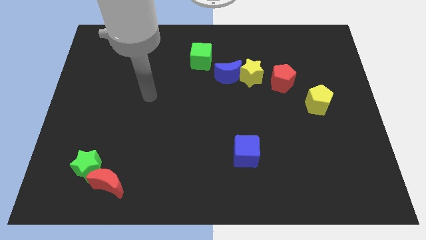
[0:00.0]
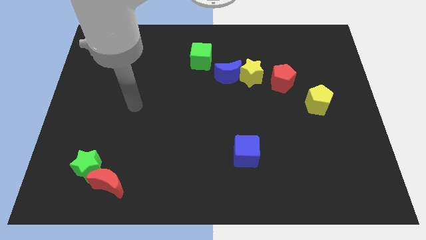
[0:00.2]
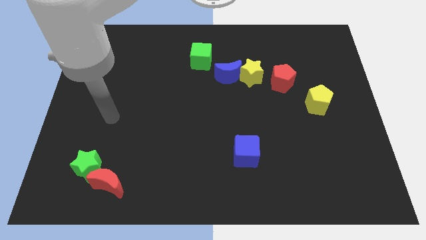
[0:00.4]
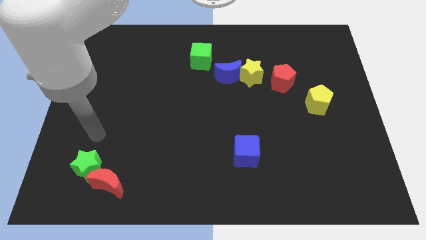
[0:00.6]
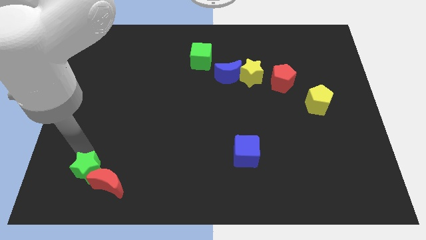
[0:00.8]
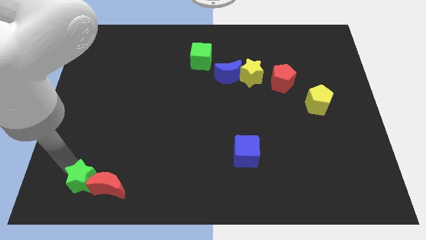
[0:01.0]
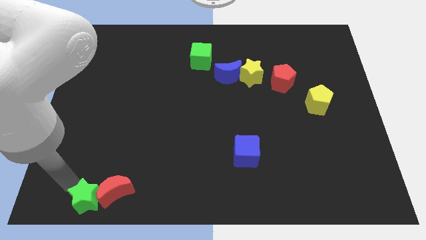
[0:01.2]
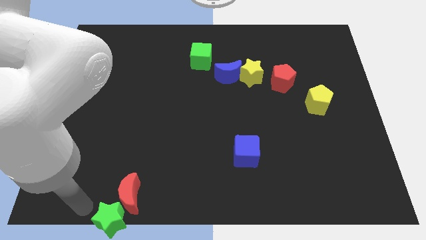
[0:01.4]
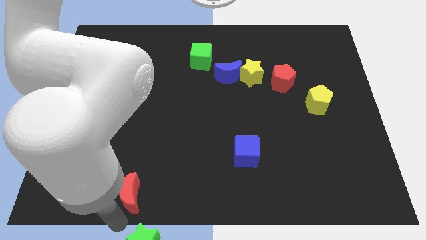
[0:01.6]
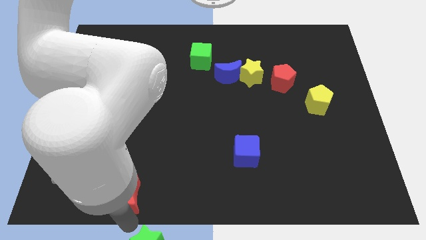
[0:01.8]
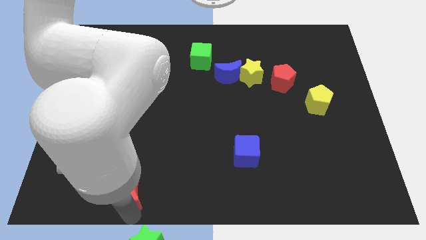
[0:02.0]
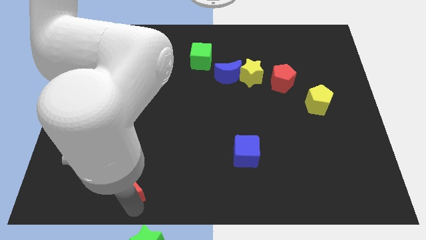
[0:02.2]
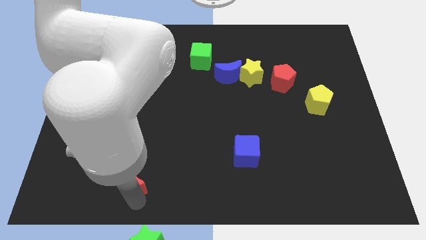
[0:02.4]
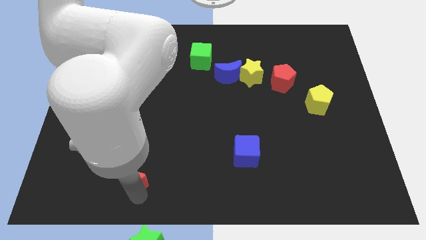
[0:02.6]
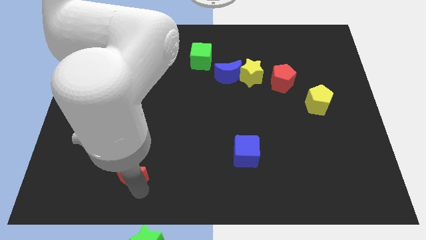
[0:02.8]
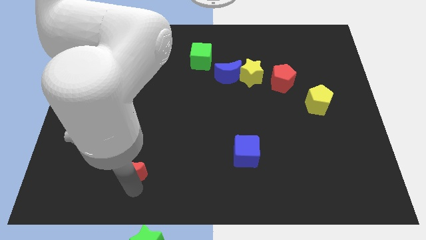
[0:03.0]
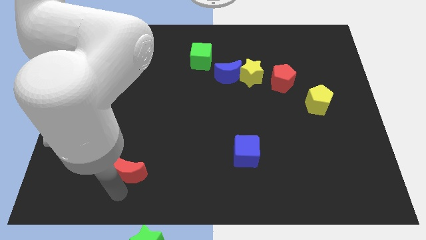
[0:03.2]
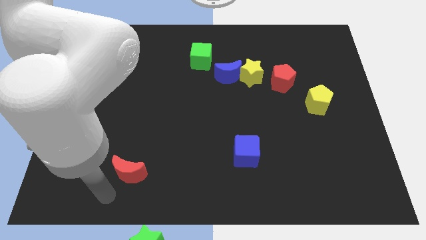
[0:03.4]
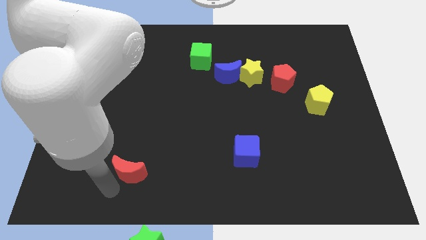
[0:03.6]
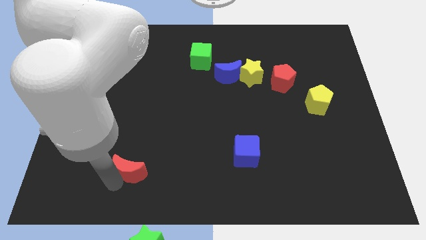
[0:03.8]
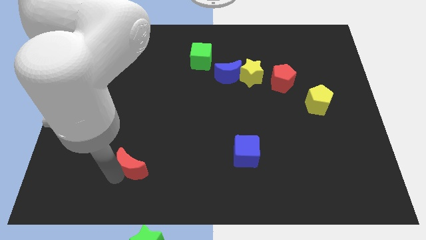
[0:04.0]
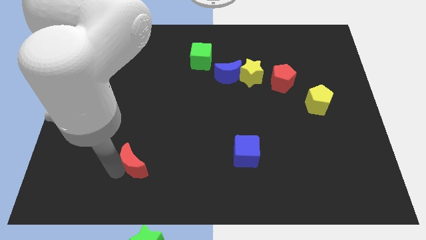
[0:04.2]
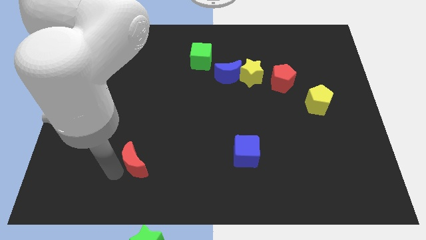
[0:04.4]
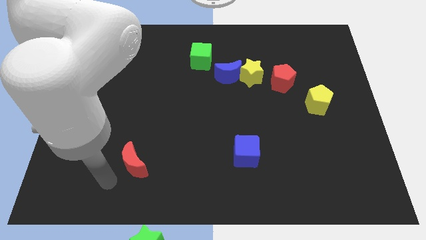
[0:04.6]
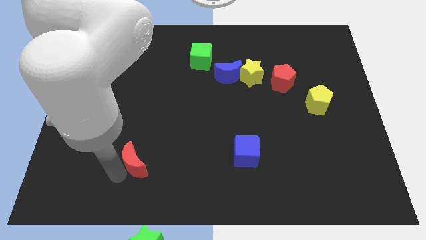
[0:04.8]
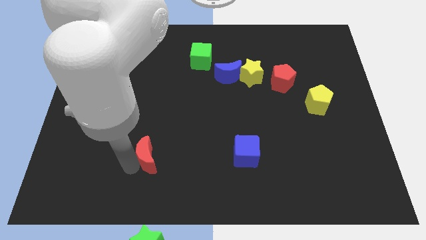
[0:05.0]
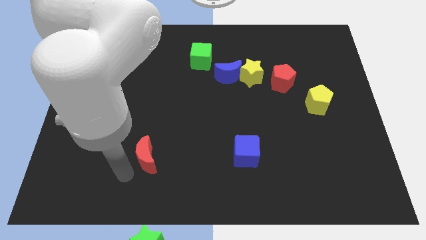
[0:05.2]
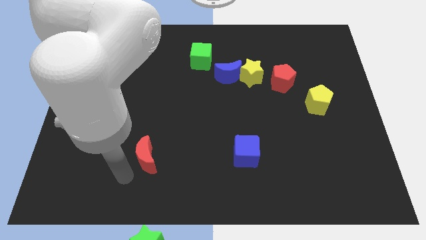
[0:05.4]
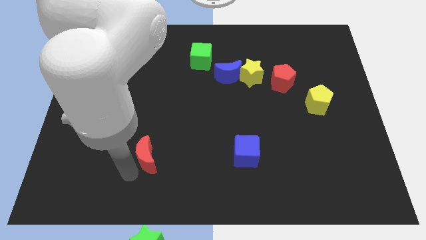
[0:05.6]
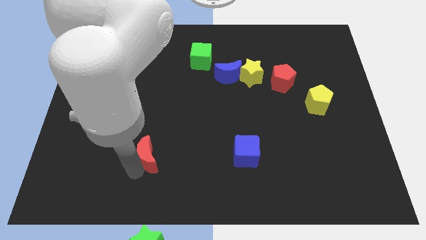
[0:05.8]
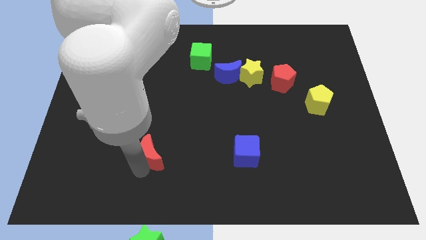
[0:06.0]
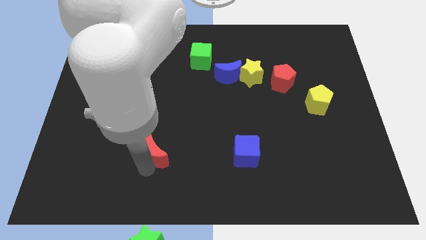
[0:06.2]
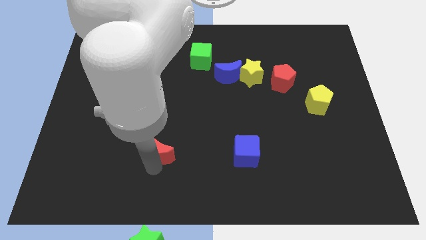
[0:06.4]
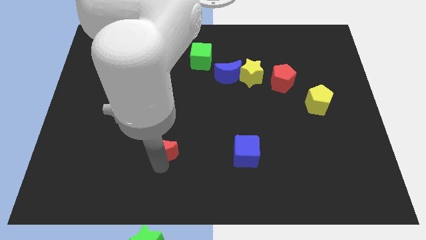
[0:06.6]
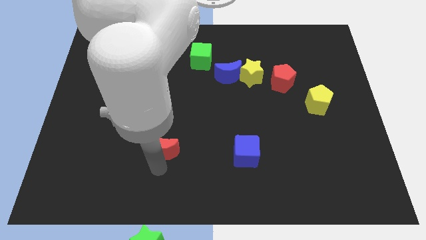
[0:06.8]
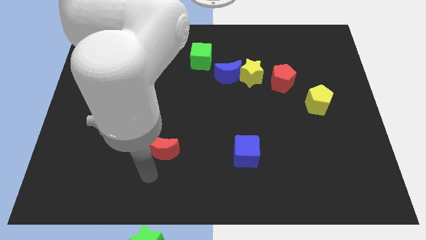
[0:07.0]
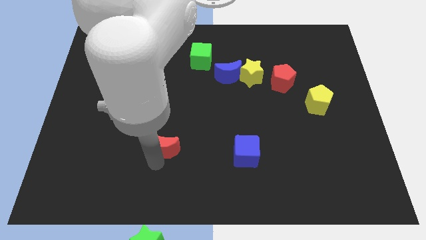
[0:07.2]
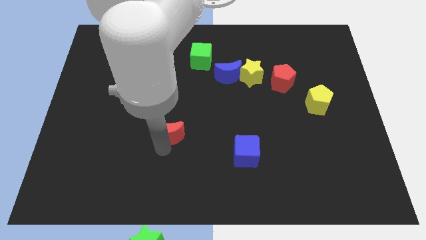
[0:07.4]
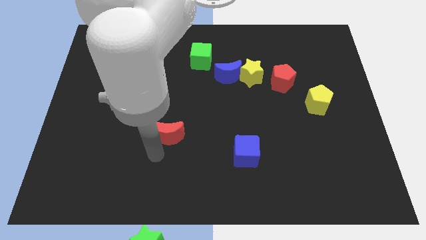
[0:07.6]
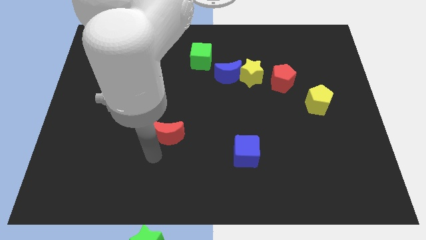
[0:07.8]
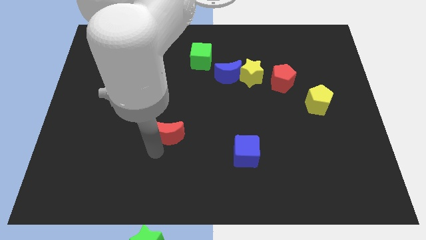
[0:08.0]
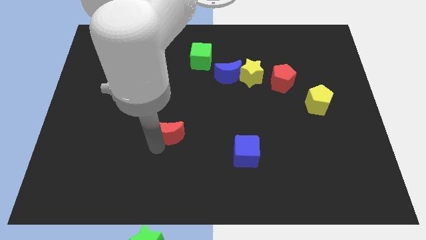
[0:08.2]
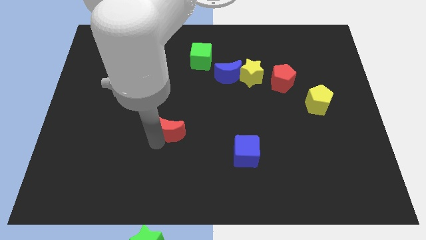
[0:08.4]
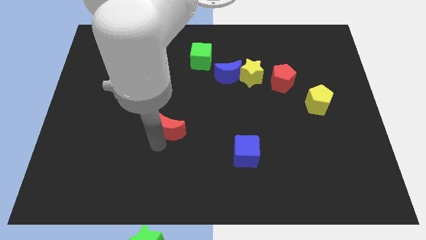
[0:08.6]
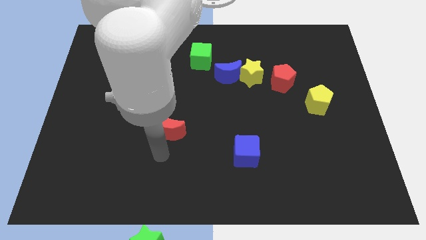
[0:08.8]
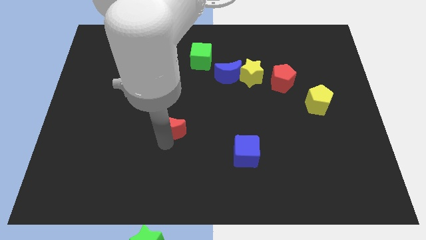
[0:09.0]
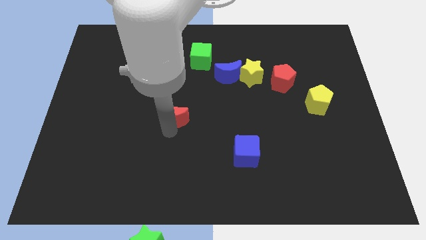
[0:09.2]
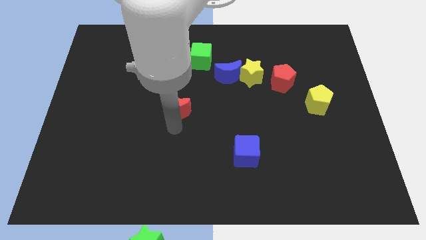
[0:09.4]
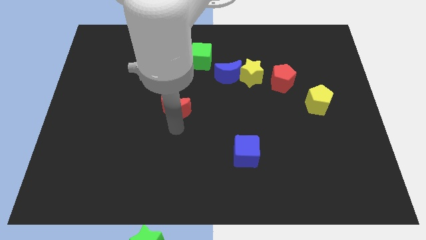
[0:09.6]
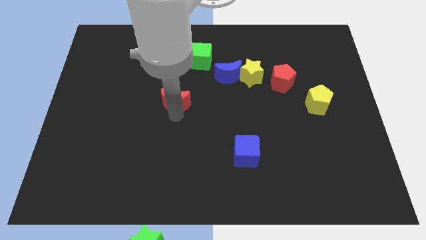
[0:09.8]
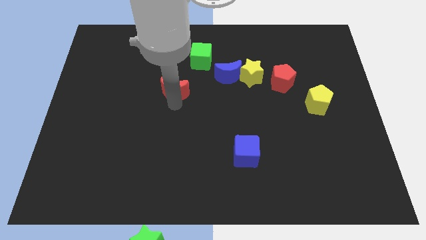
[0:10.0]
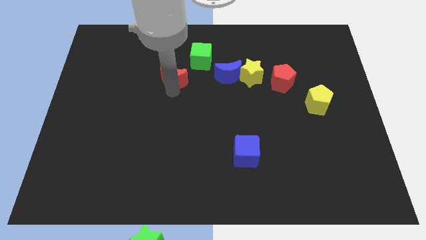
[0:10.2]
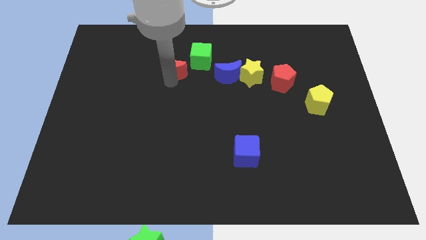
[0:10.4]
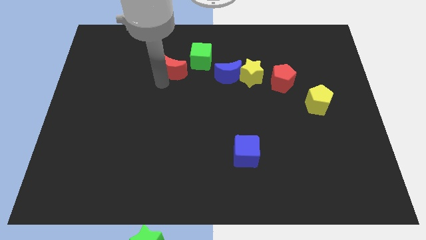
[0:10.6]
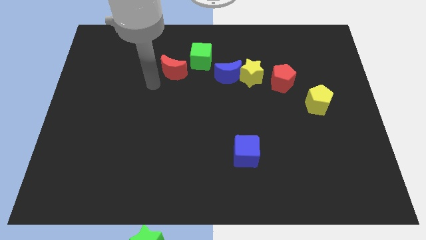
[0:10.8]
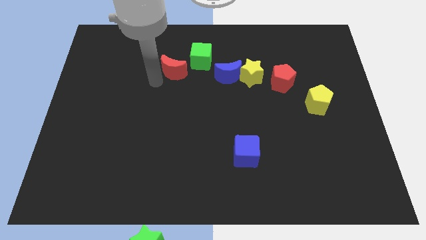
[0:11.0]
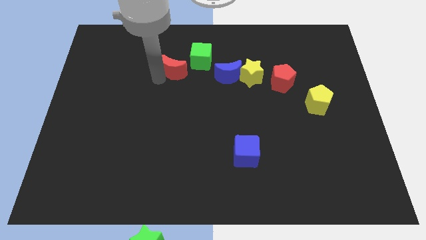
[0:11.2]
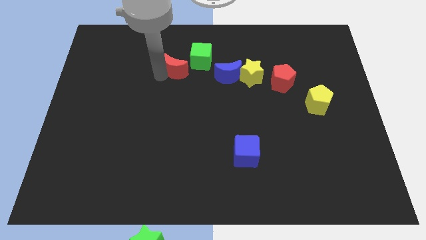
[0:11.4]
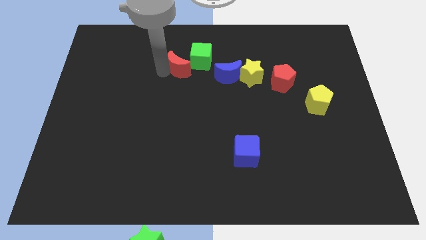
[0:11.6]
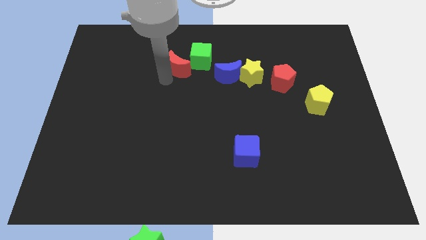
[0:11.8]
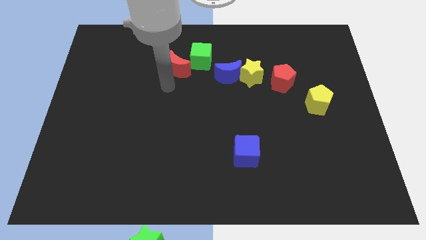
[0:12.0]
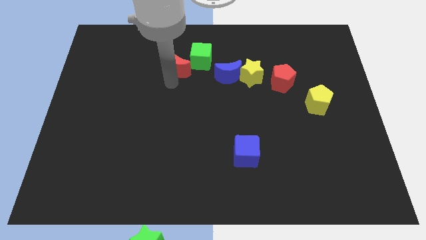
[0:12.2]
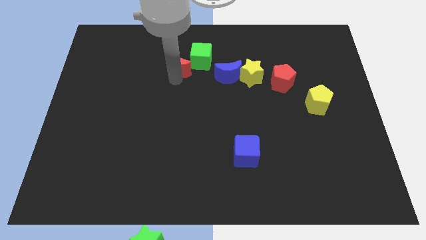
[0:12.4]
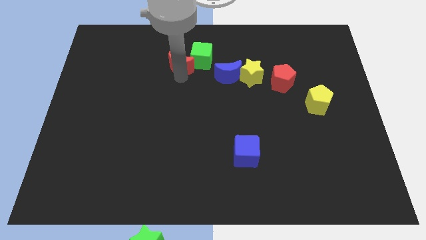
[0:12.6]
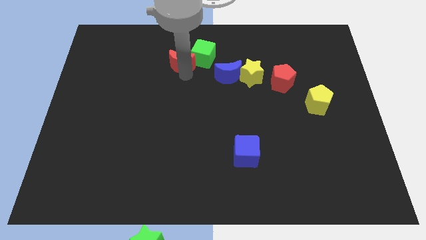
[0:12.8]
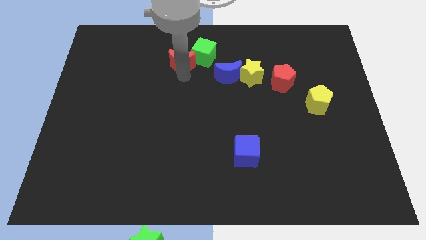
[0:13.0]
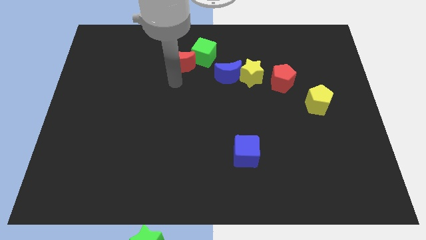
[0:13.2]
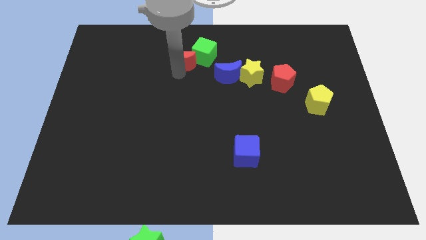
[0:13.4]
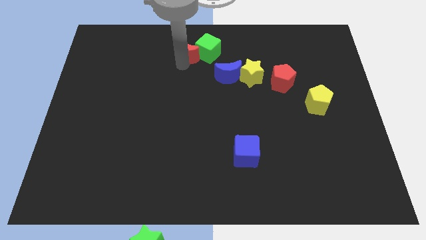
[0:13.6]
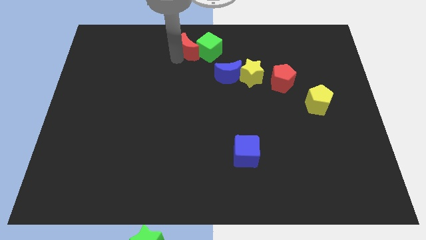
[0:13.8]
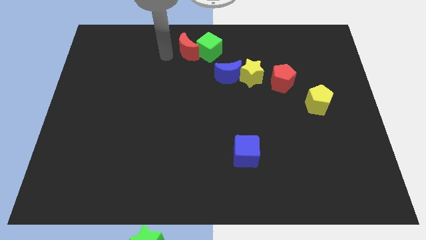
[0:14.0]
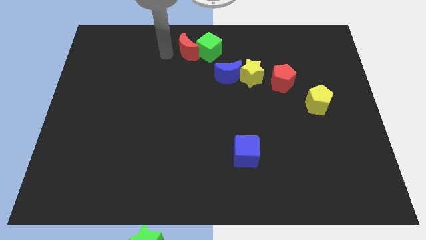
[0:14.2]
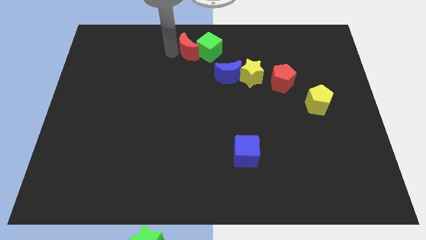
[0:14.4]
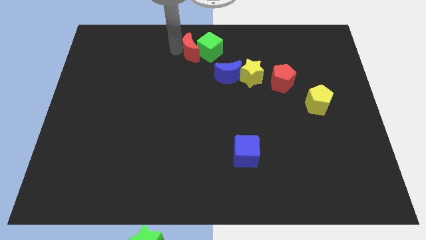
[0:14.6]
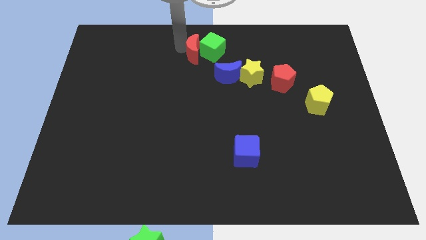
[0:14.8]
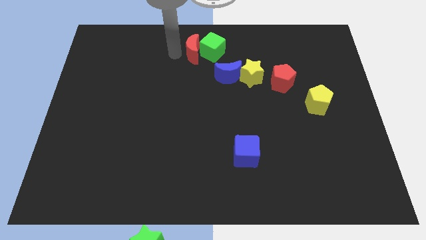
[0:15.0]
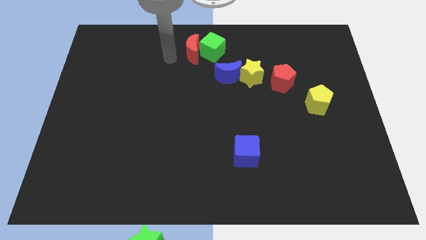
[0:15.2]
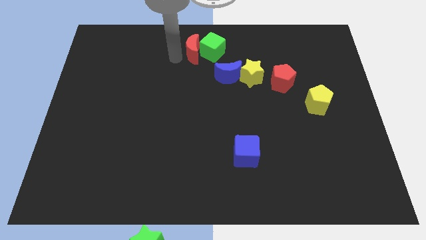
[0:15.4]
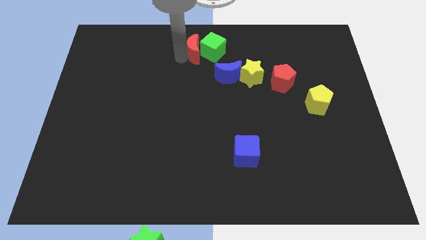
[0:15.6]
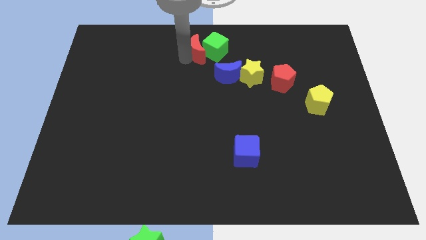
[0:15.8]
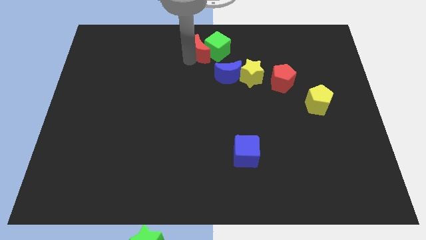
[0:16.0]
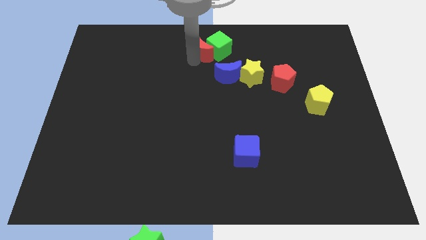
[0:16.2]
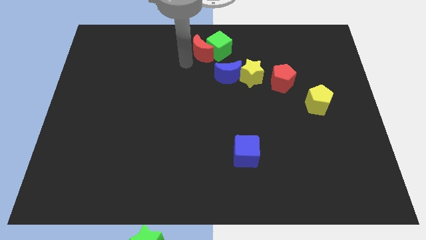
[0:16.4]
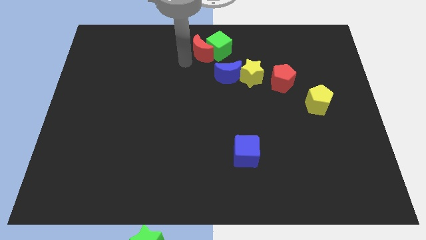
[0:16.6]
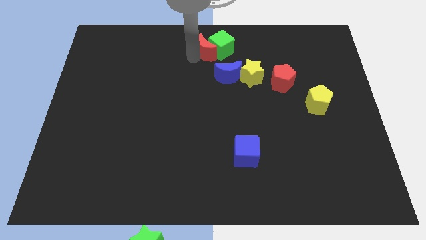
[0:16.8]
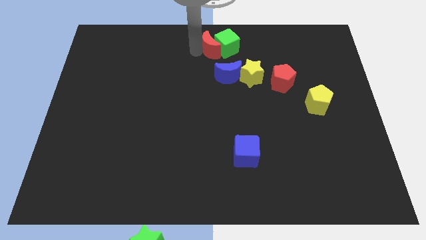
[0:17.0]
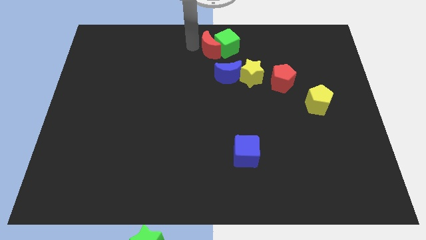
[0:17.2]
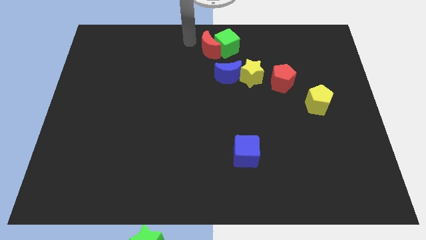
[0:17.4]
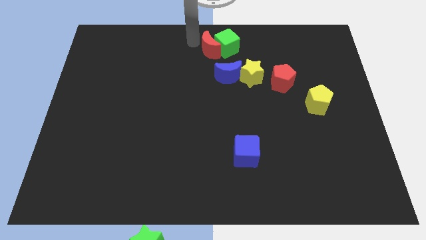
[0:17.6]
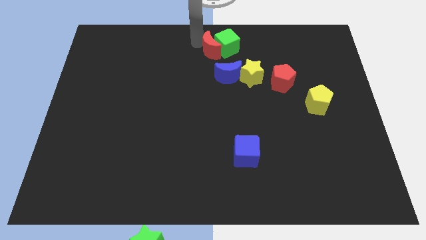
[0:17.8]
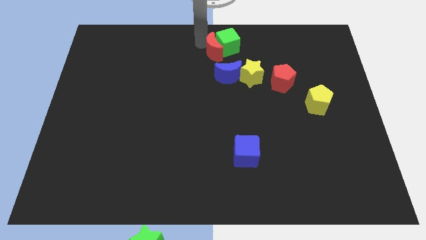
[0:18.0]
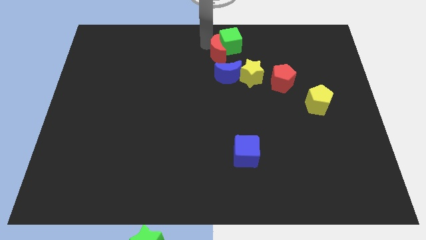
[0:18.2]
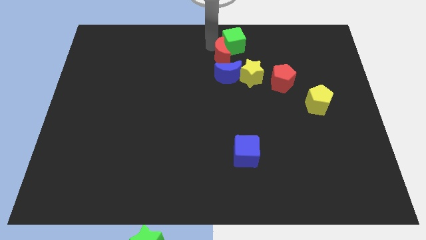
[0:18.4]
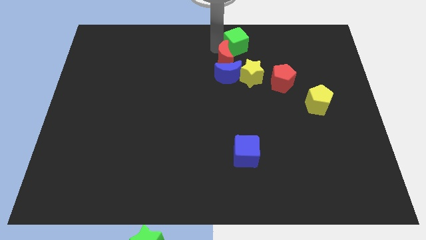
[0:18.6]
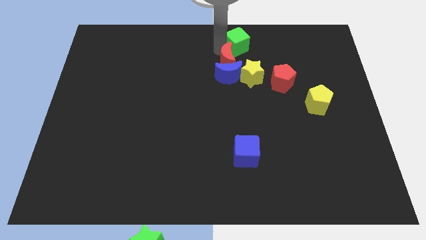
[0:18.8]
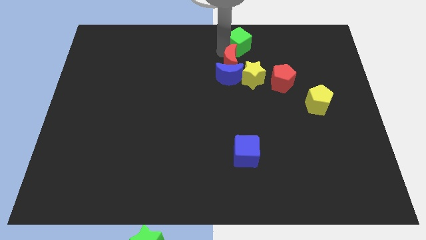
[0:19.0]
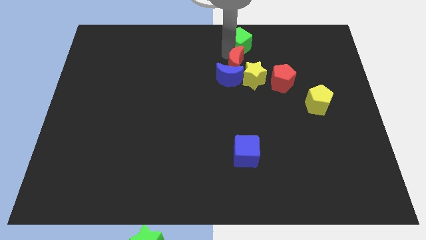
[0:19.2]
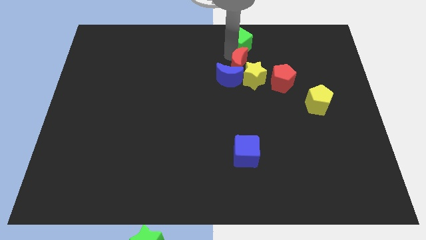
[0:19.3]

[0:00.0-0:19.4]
move the red moon diagonally up and to the left of the red pentagon
